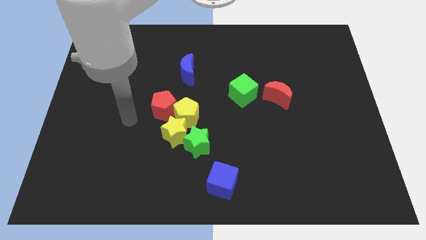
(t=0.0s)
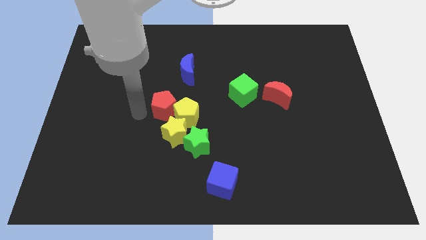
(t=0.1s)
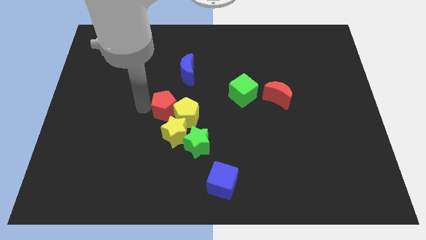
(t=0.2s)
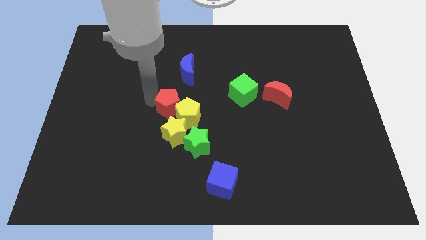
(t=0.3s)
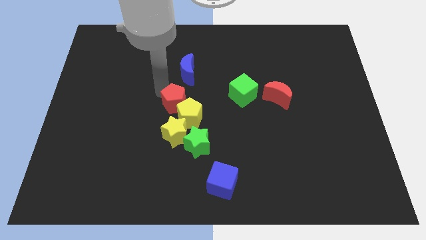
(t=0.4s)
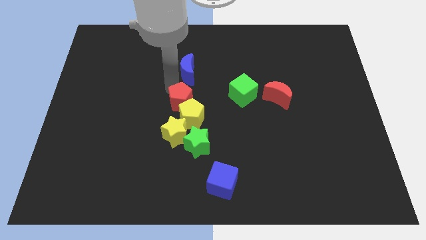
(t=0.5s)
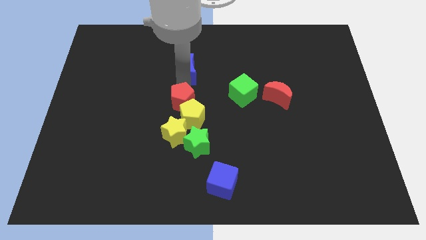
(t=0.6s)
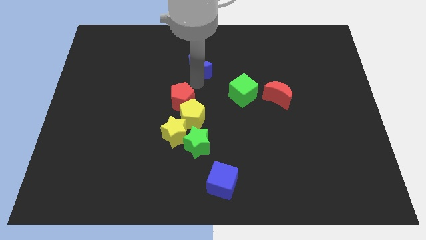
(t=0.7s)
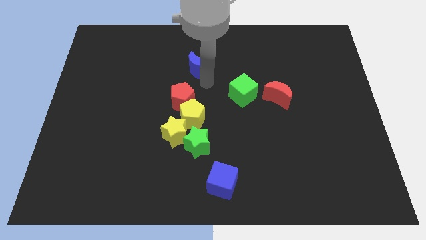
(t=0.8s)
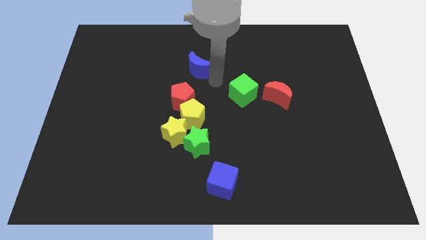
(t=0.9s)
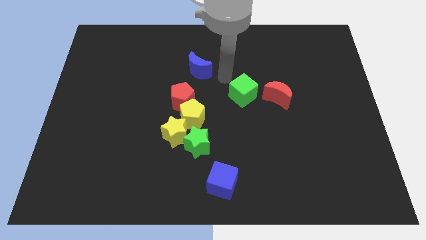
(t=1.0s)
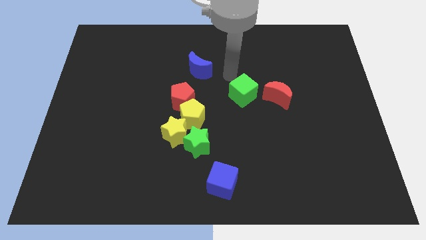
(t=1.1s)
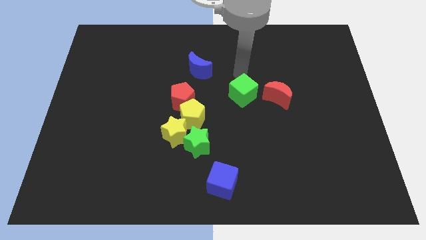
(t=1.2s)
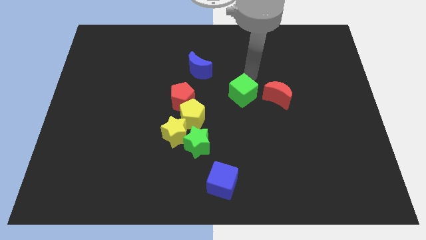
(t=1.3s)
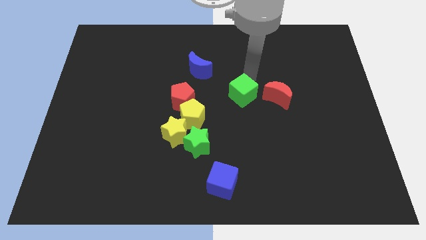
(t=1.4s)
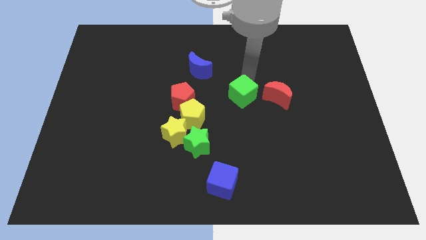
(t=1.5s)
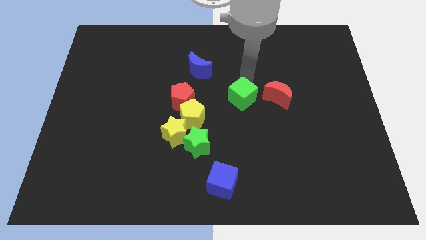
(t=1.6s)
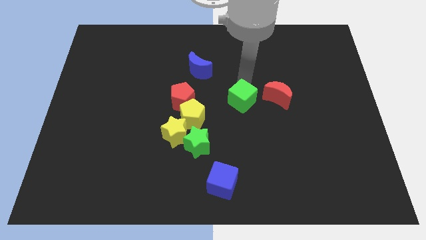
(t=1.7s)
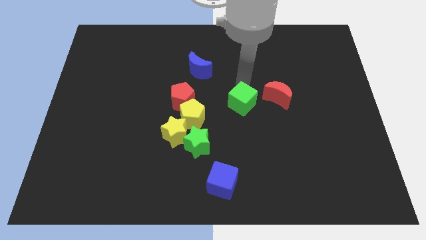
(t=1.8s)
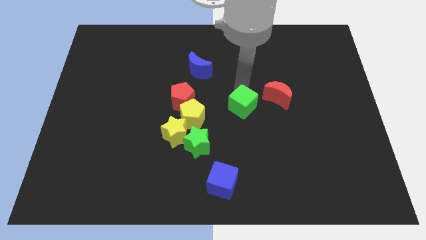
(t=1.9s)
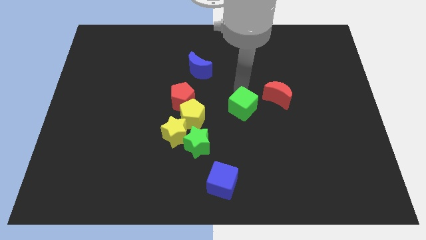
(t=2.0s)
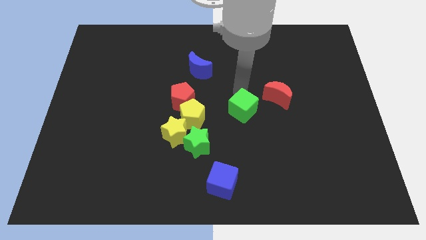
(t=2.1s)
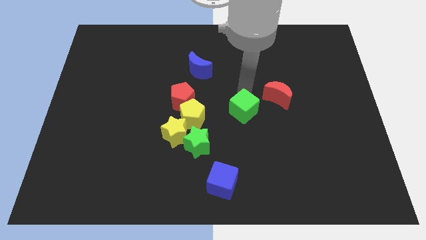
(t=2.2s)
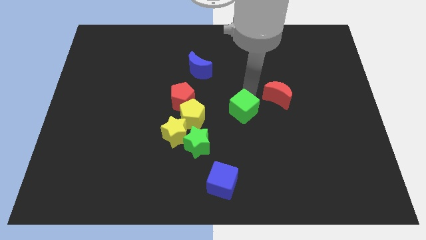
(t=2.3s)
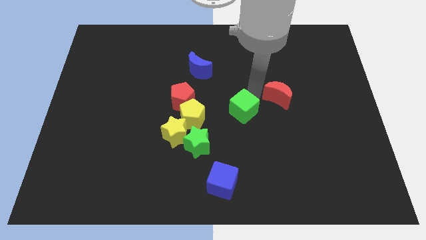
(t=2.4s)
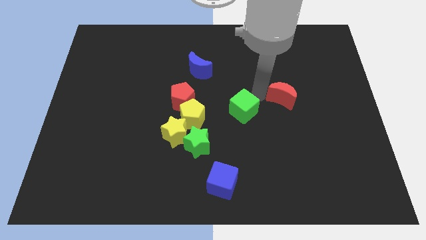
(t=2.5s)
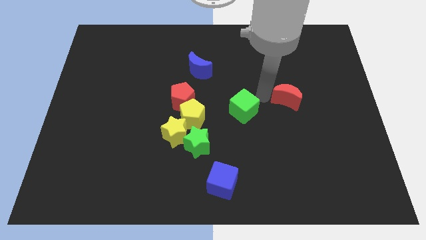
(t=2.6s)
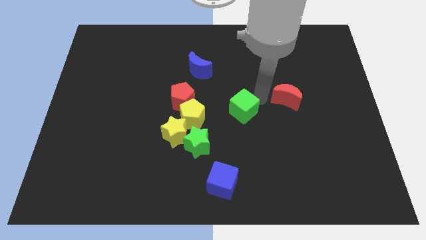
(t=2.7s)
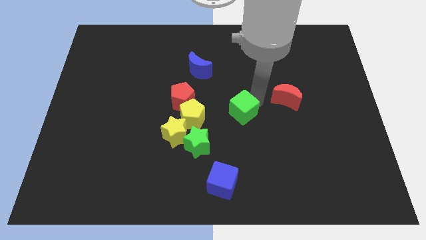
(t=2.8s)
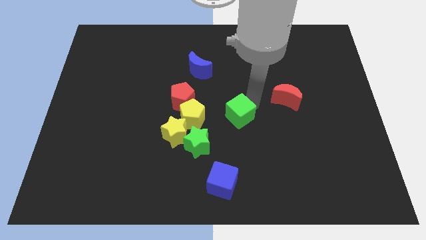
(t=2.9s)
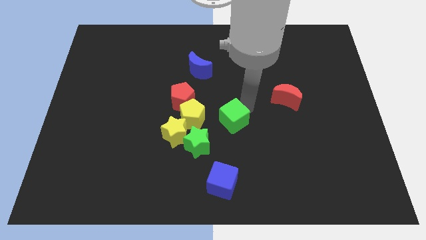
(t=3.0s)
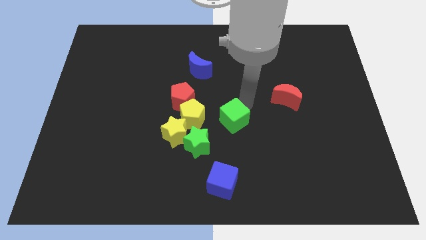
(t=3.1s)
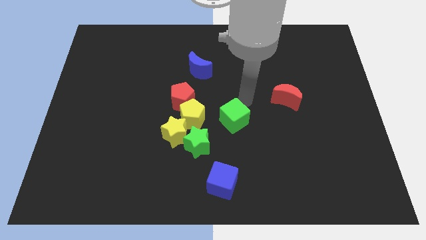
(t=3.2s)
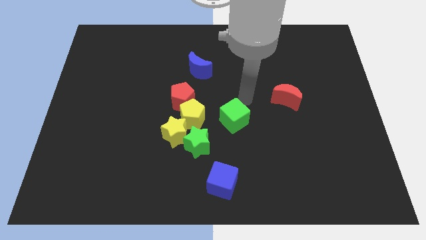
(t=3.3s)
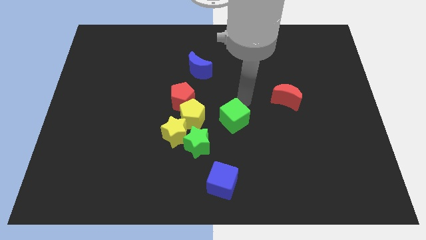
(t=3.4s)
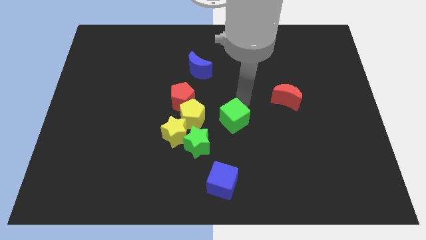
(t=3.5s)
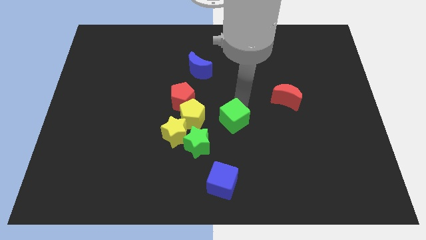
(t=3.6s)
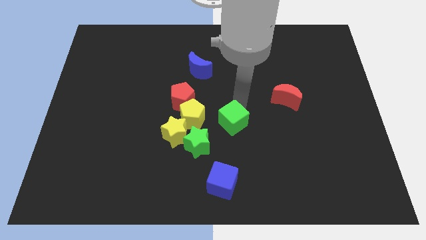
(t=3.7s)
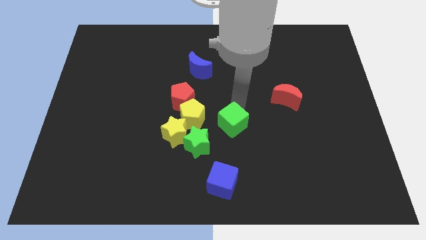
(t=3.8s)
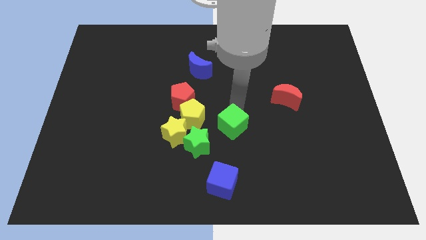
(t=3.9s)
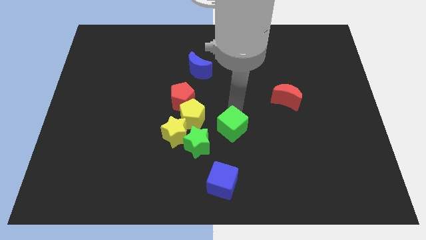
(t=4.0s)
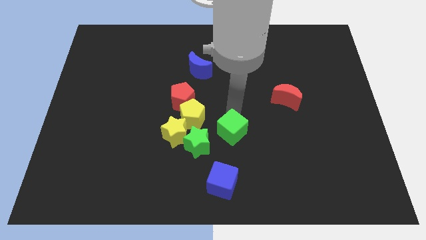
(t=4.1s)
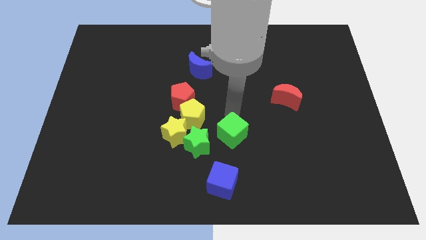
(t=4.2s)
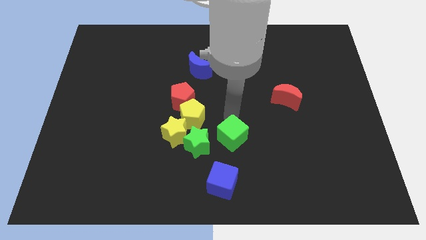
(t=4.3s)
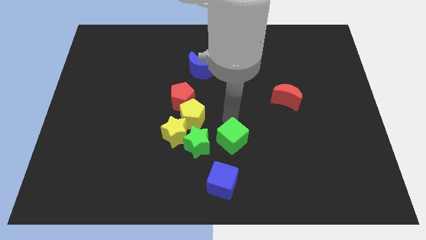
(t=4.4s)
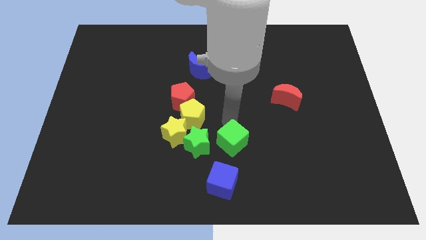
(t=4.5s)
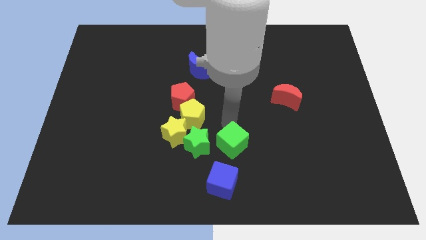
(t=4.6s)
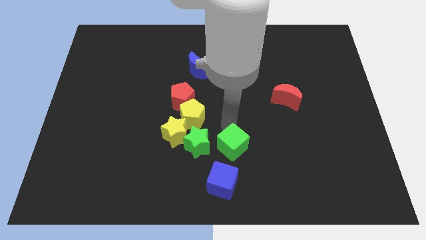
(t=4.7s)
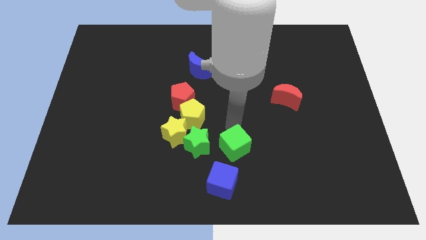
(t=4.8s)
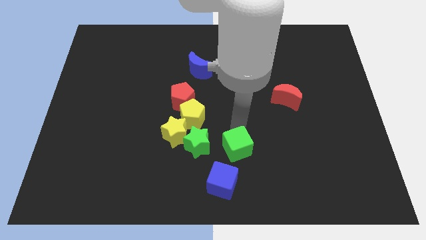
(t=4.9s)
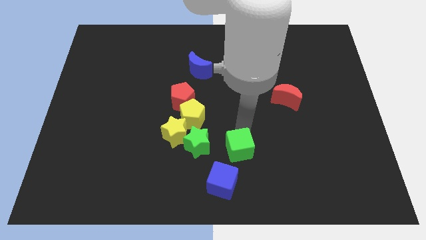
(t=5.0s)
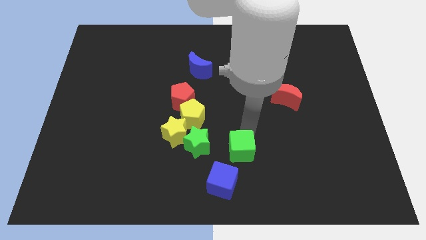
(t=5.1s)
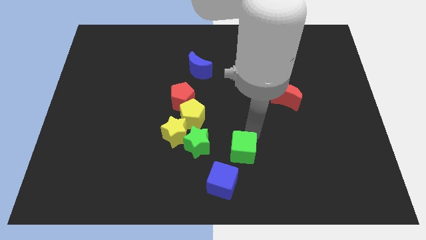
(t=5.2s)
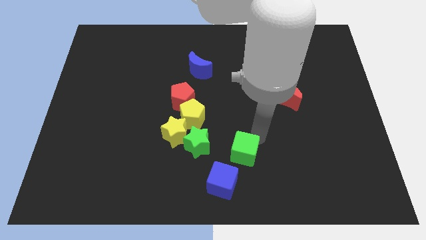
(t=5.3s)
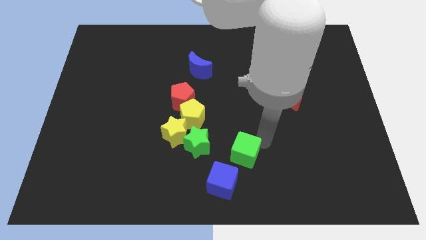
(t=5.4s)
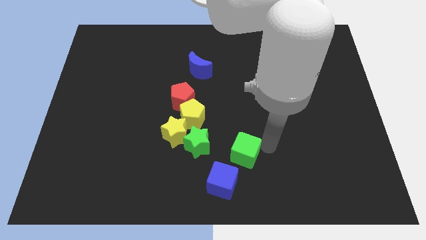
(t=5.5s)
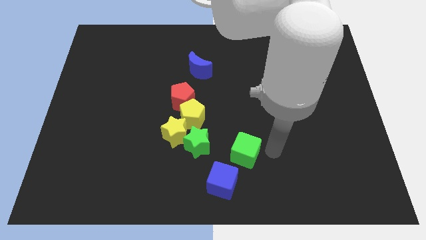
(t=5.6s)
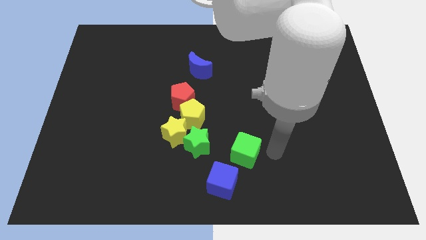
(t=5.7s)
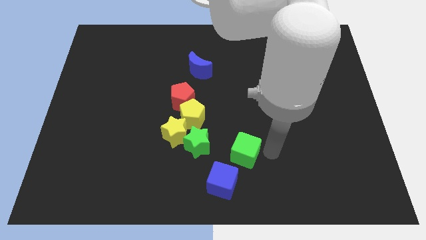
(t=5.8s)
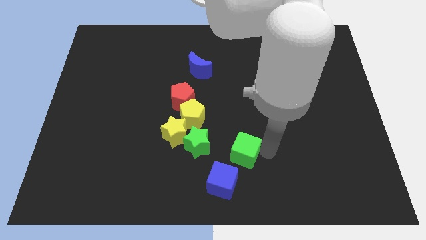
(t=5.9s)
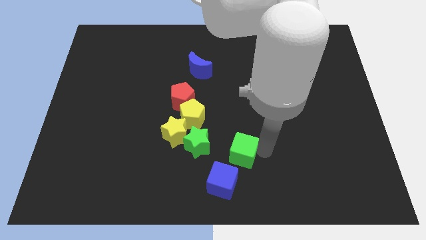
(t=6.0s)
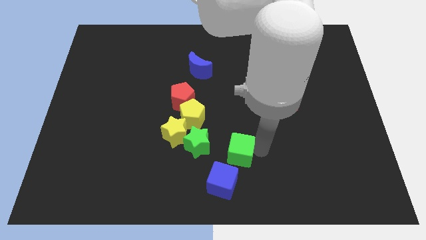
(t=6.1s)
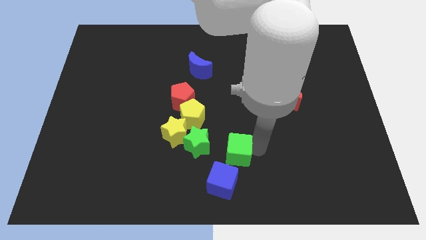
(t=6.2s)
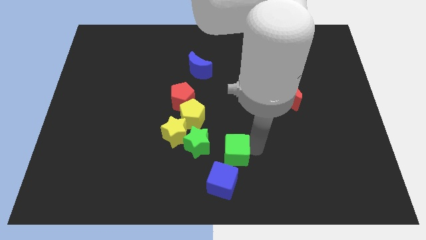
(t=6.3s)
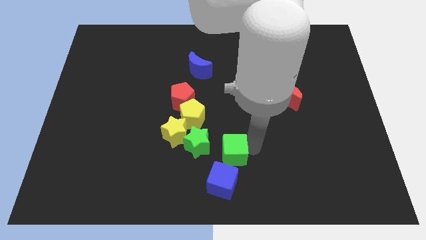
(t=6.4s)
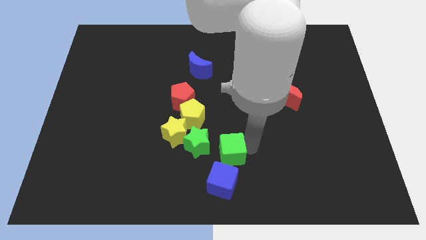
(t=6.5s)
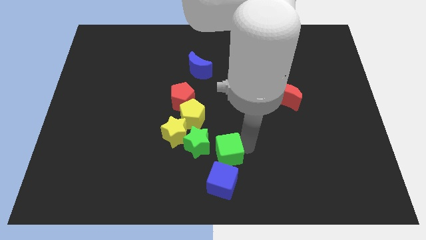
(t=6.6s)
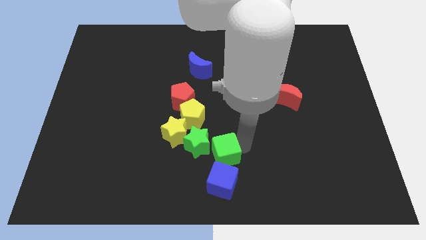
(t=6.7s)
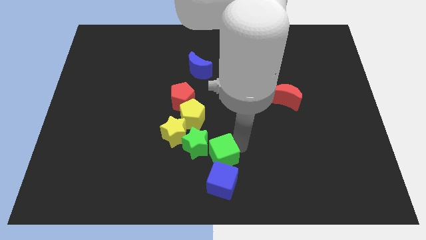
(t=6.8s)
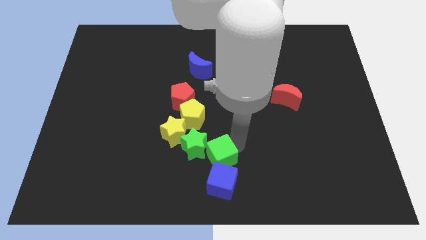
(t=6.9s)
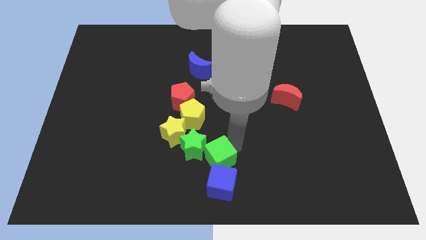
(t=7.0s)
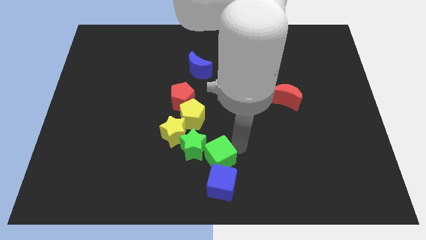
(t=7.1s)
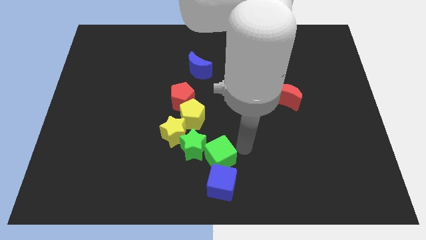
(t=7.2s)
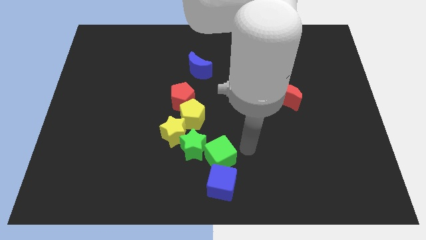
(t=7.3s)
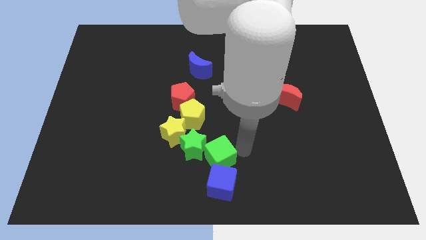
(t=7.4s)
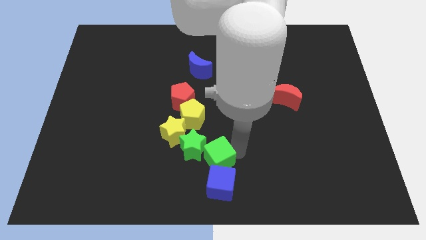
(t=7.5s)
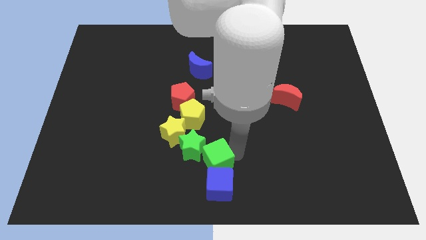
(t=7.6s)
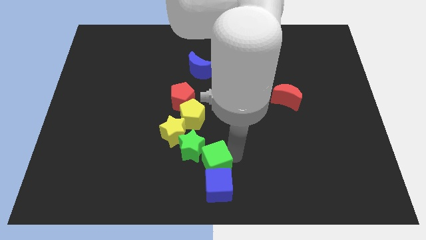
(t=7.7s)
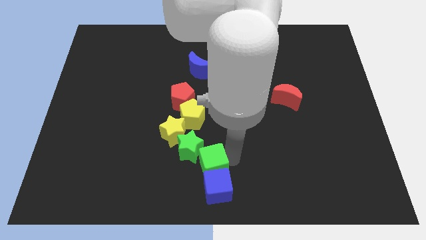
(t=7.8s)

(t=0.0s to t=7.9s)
put the green cube to the bottom side of the yellow pentagon

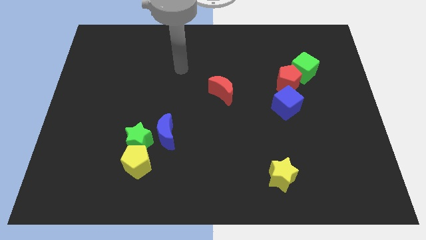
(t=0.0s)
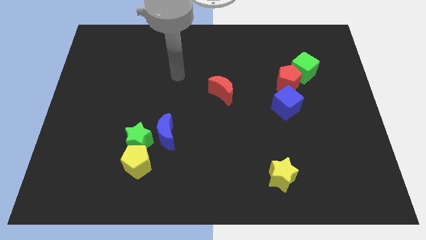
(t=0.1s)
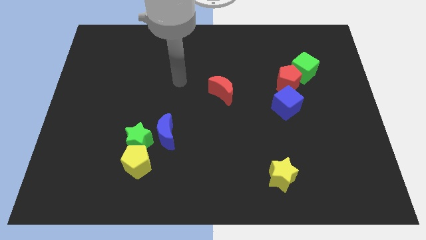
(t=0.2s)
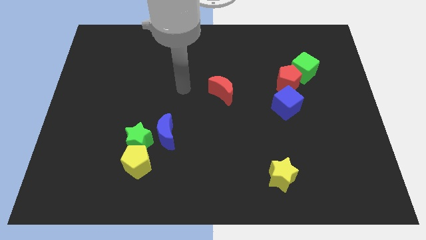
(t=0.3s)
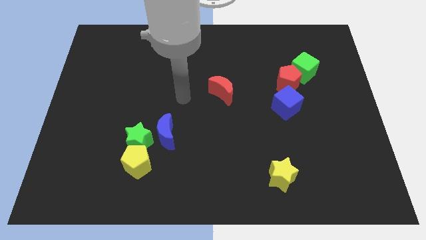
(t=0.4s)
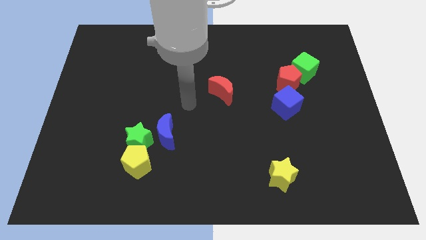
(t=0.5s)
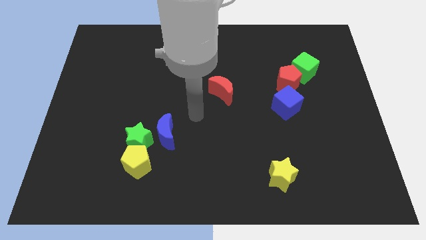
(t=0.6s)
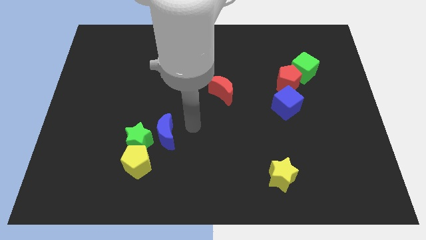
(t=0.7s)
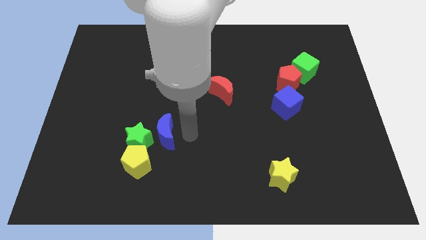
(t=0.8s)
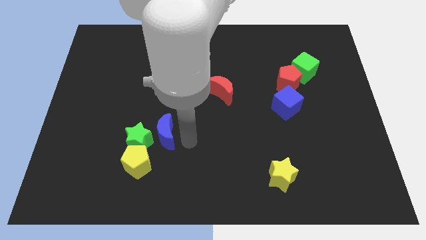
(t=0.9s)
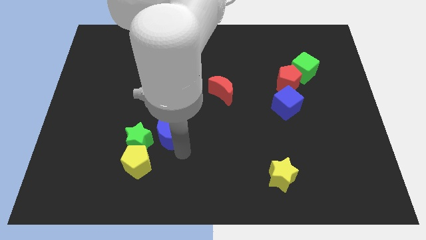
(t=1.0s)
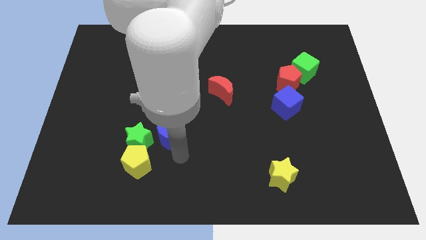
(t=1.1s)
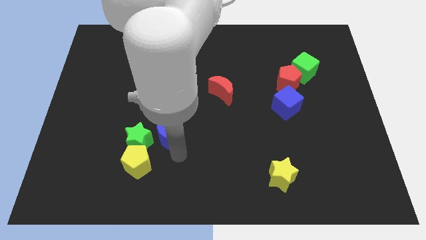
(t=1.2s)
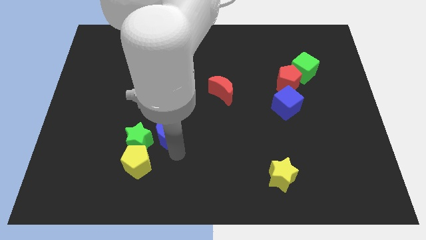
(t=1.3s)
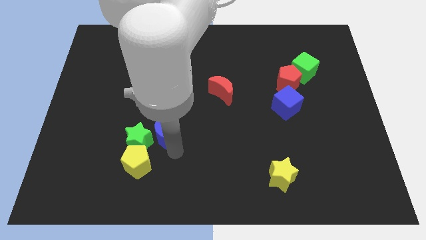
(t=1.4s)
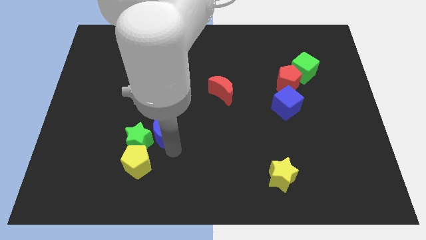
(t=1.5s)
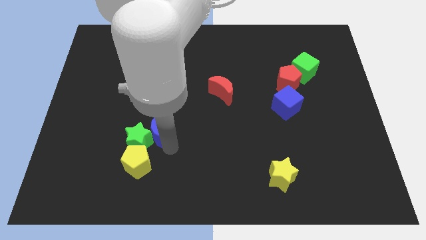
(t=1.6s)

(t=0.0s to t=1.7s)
slide the blue moon to the top side of the green star
